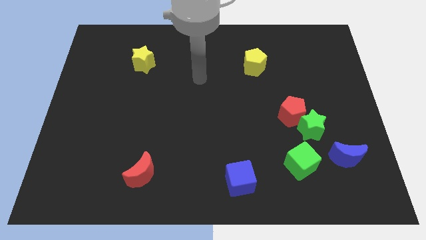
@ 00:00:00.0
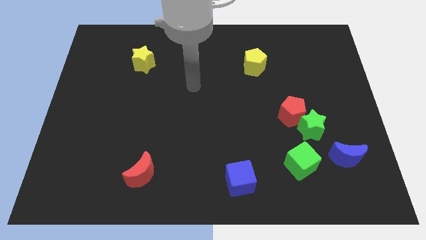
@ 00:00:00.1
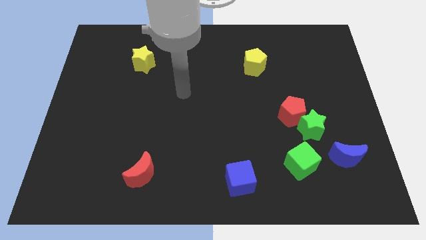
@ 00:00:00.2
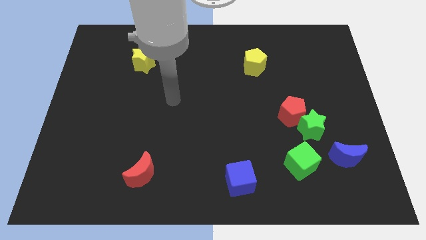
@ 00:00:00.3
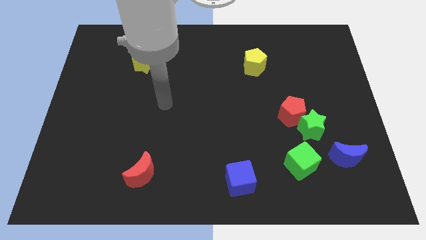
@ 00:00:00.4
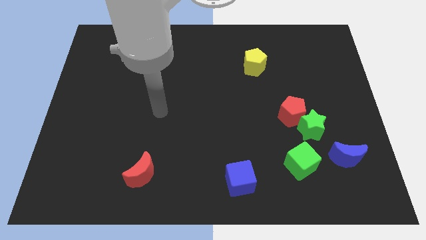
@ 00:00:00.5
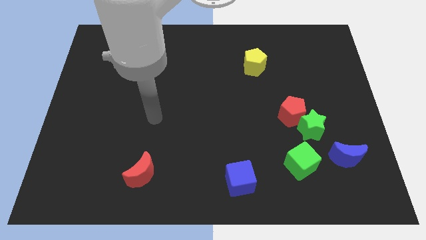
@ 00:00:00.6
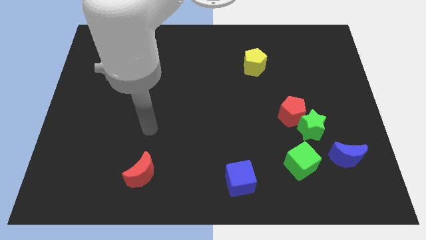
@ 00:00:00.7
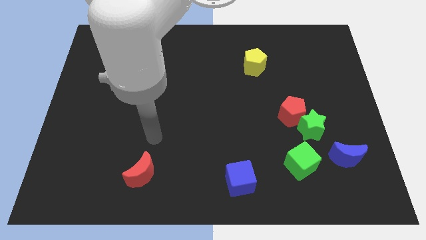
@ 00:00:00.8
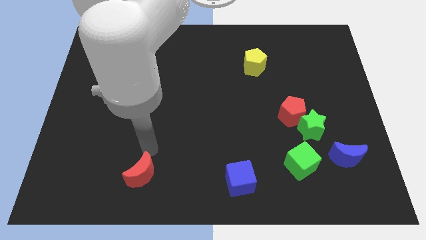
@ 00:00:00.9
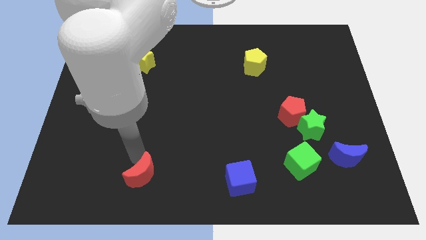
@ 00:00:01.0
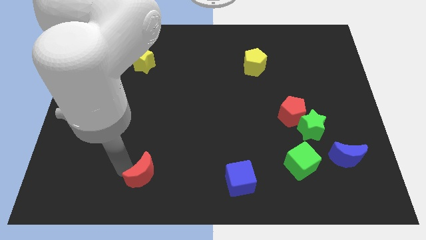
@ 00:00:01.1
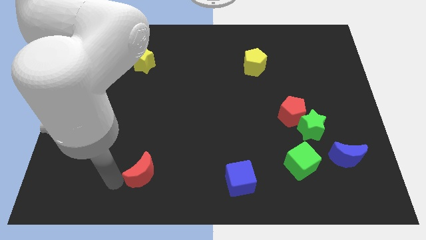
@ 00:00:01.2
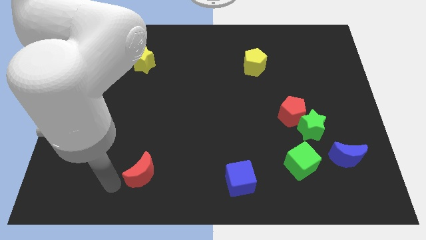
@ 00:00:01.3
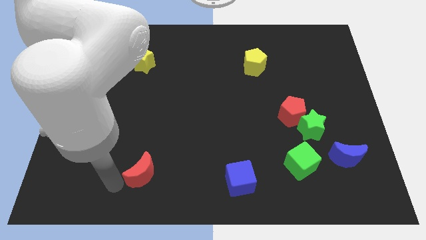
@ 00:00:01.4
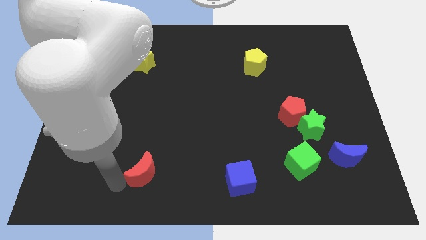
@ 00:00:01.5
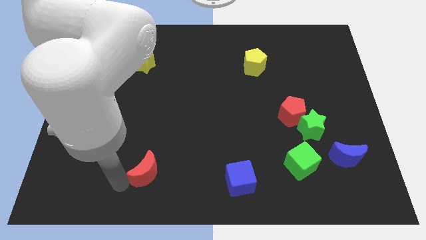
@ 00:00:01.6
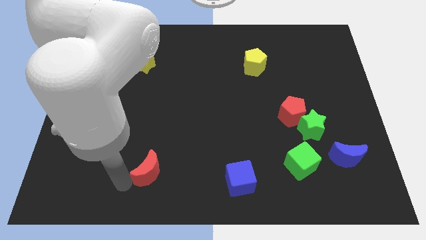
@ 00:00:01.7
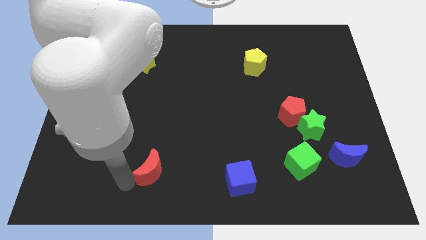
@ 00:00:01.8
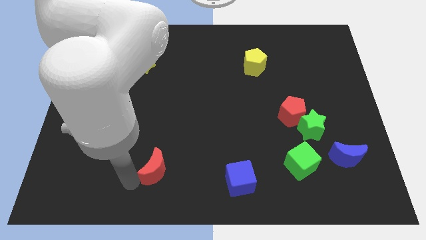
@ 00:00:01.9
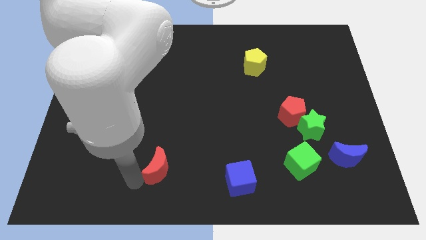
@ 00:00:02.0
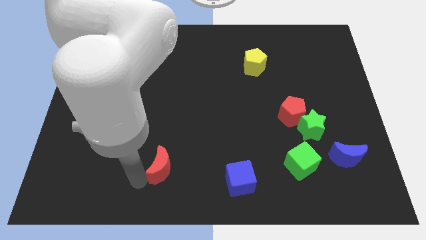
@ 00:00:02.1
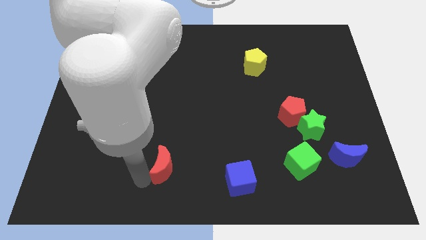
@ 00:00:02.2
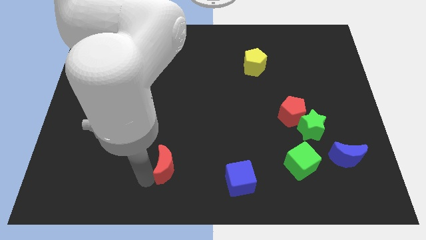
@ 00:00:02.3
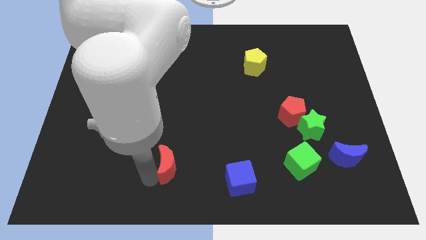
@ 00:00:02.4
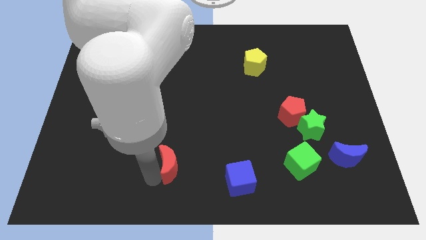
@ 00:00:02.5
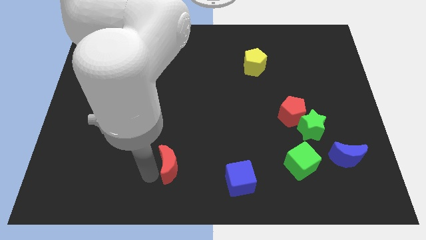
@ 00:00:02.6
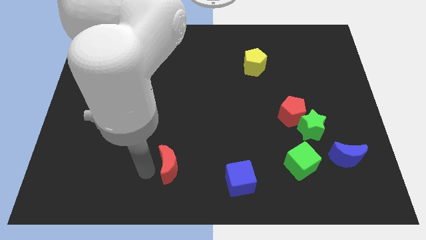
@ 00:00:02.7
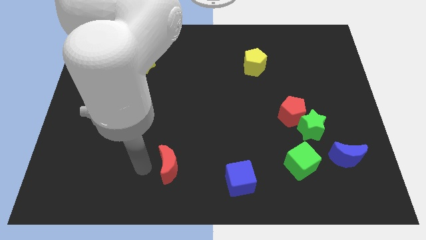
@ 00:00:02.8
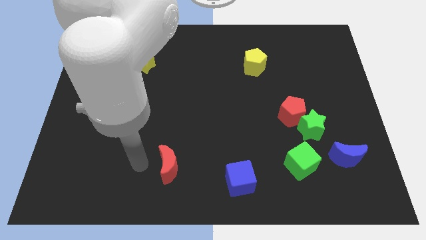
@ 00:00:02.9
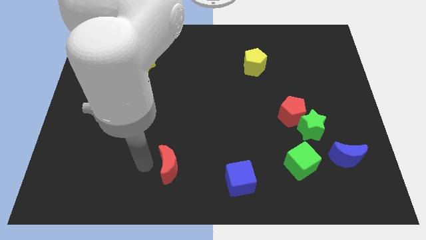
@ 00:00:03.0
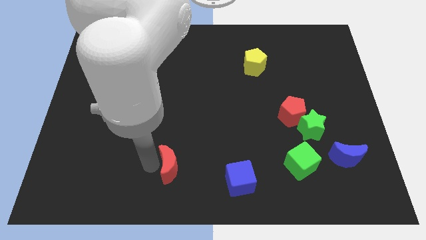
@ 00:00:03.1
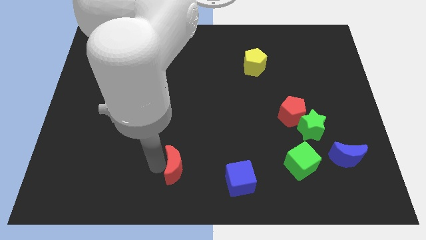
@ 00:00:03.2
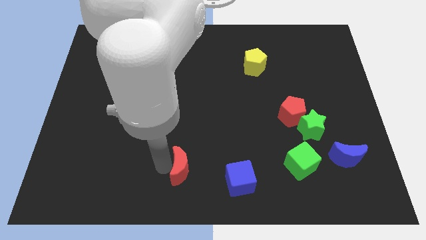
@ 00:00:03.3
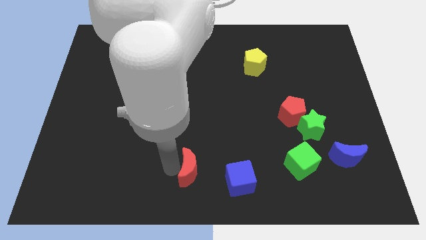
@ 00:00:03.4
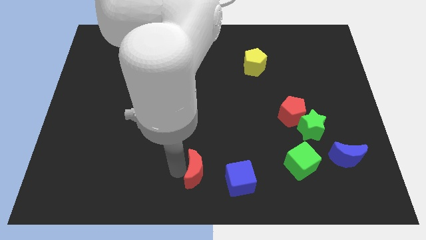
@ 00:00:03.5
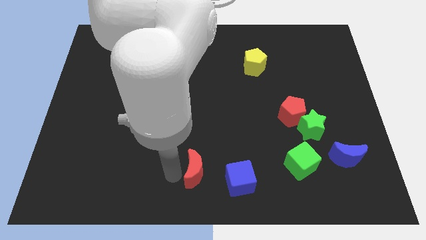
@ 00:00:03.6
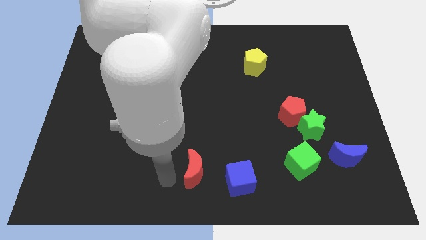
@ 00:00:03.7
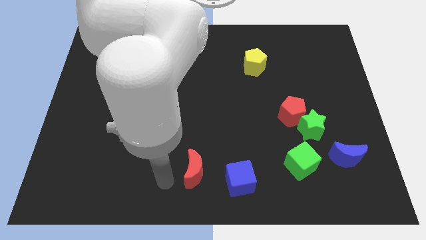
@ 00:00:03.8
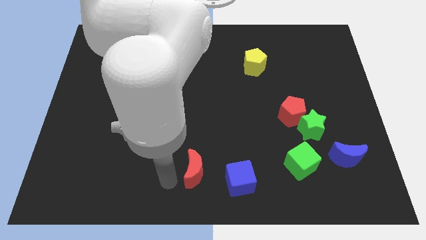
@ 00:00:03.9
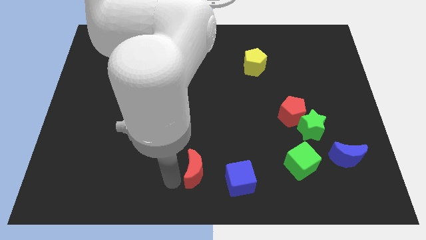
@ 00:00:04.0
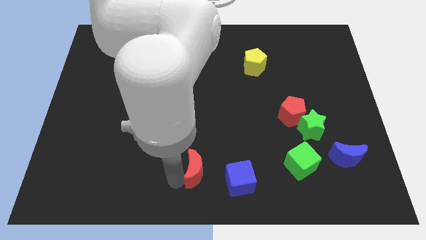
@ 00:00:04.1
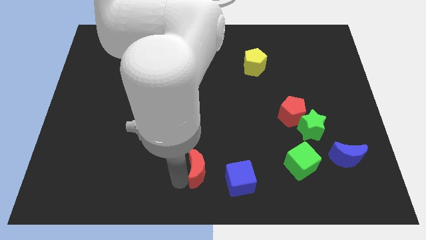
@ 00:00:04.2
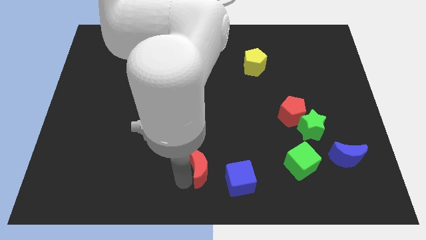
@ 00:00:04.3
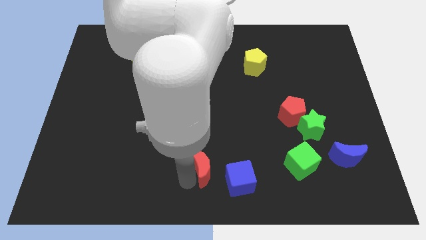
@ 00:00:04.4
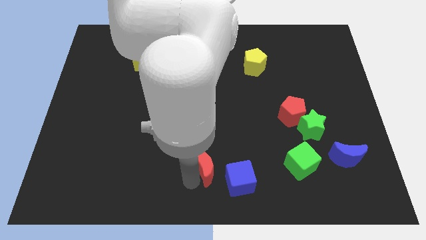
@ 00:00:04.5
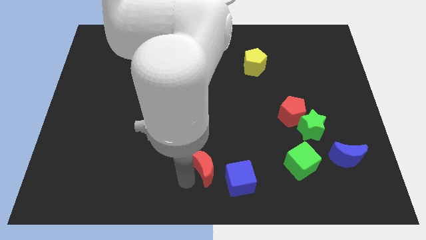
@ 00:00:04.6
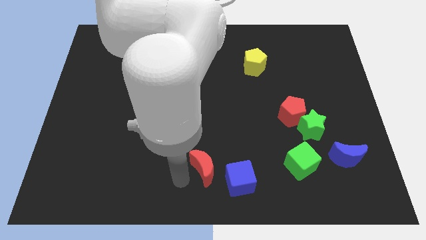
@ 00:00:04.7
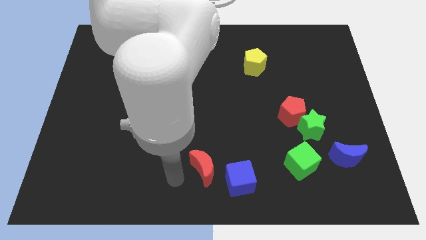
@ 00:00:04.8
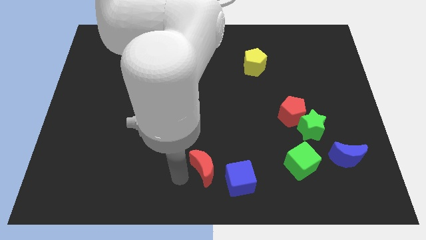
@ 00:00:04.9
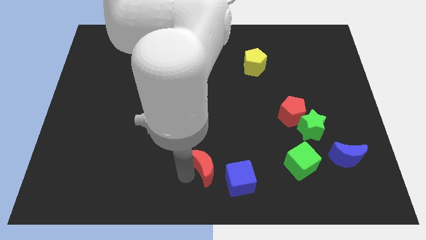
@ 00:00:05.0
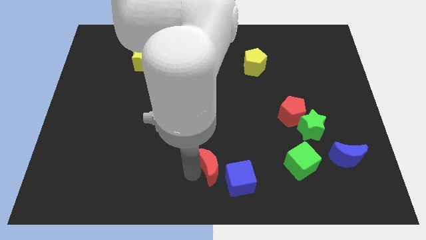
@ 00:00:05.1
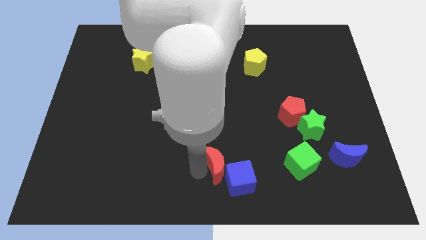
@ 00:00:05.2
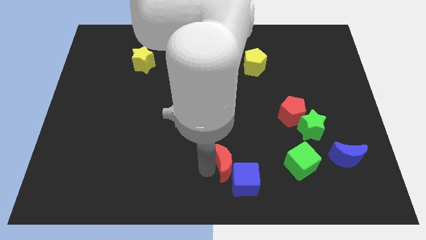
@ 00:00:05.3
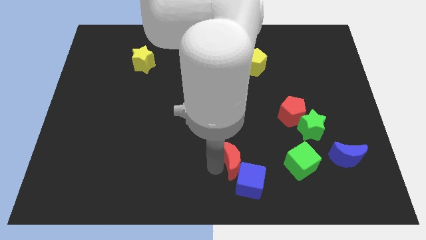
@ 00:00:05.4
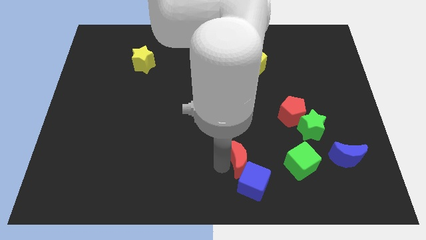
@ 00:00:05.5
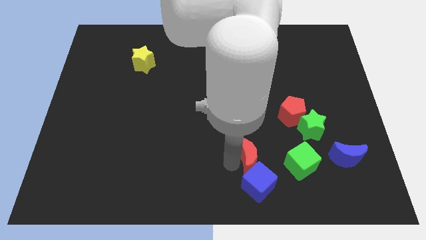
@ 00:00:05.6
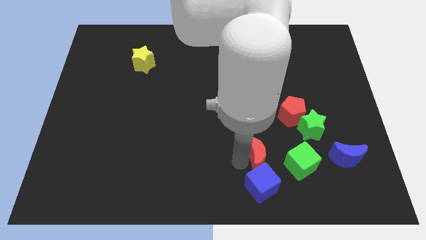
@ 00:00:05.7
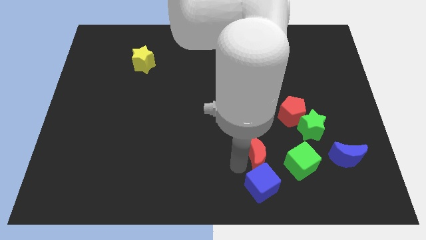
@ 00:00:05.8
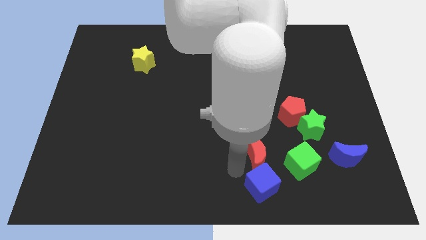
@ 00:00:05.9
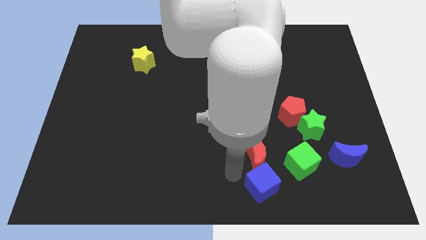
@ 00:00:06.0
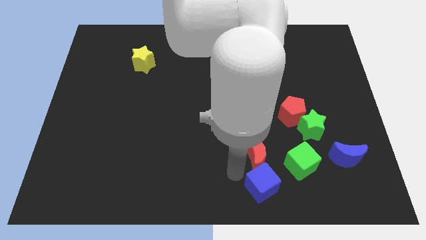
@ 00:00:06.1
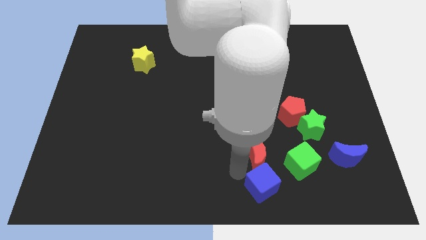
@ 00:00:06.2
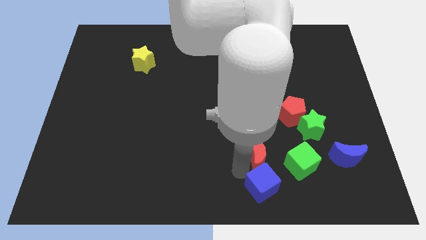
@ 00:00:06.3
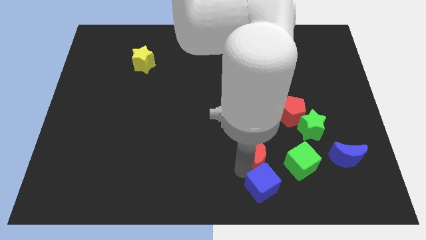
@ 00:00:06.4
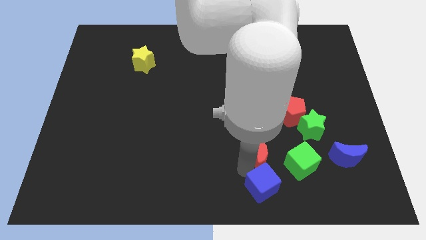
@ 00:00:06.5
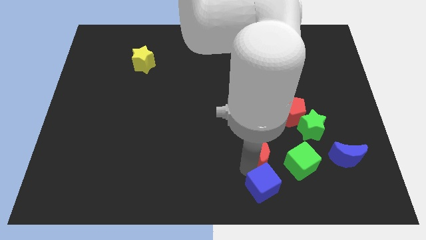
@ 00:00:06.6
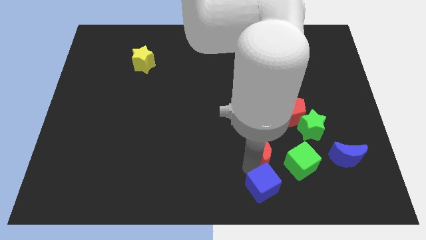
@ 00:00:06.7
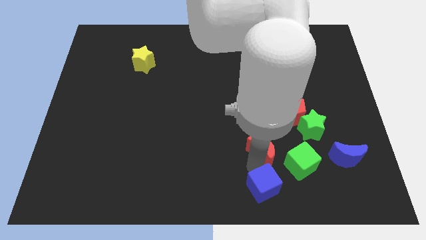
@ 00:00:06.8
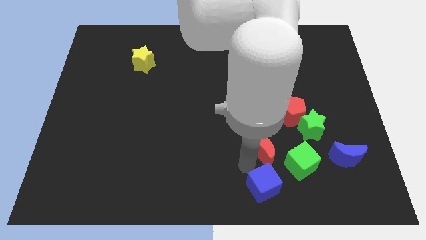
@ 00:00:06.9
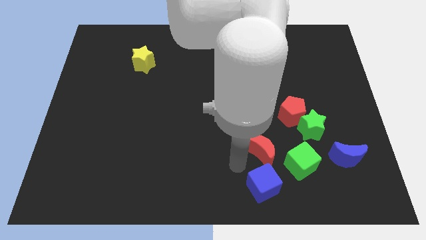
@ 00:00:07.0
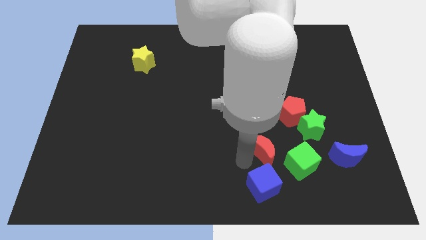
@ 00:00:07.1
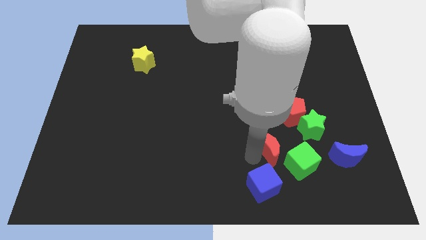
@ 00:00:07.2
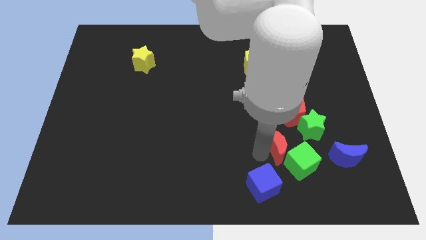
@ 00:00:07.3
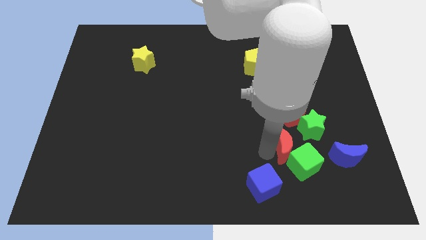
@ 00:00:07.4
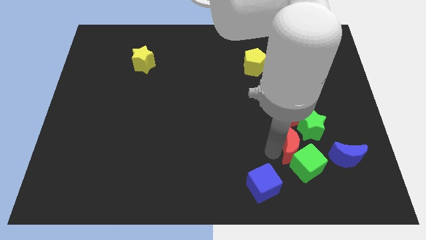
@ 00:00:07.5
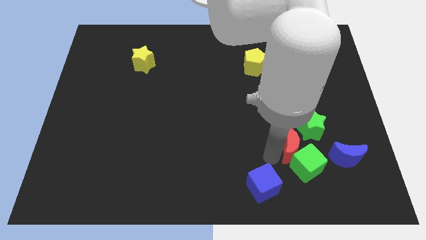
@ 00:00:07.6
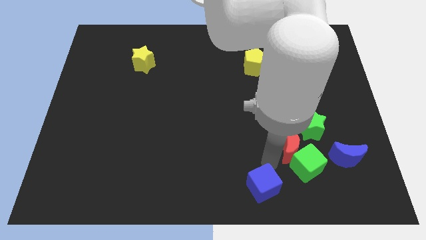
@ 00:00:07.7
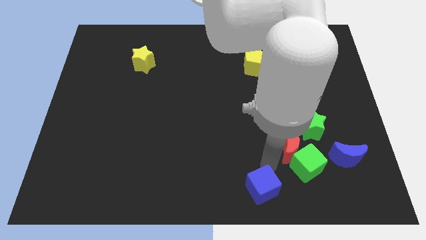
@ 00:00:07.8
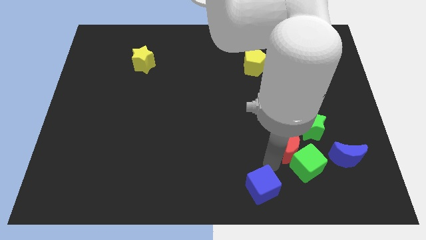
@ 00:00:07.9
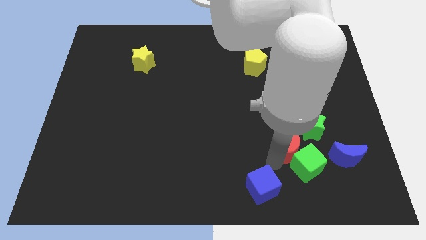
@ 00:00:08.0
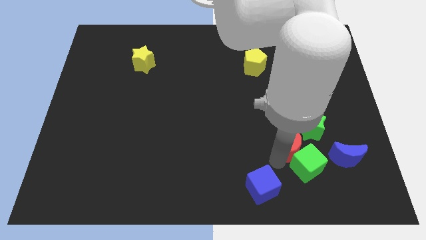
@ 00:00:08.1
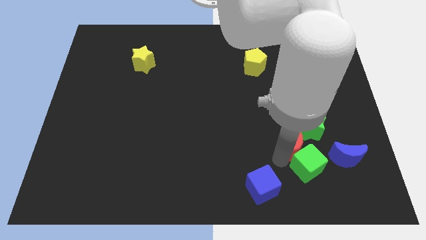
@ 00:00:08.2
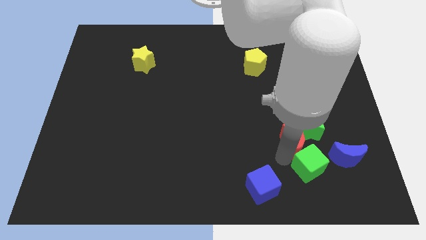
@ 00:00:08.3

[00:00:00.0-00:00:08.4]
move the red moon to the green star
